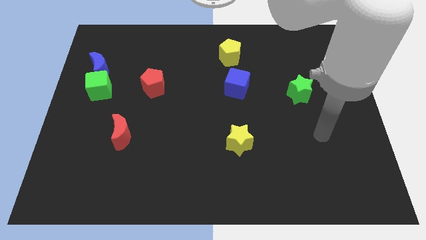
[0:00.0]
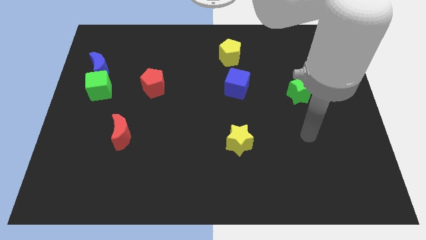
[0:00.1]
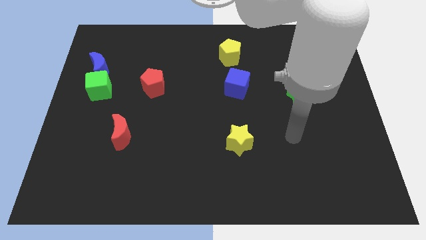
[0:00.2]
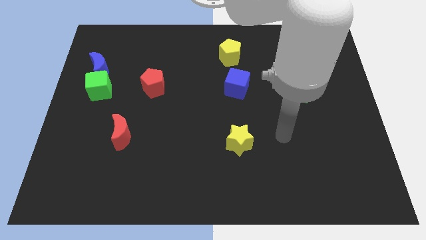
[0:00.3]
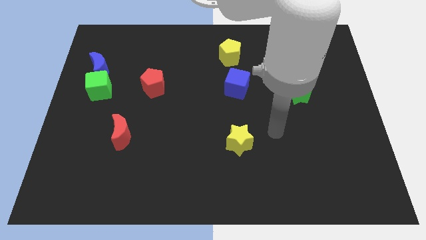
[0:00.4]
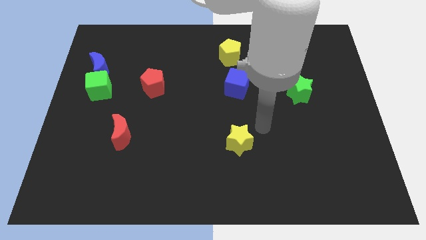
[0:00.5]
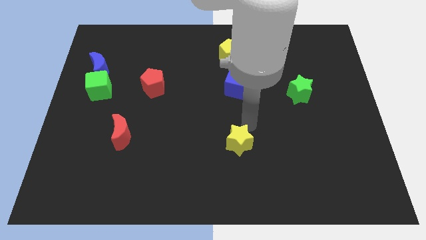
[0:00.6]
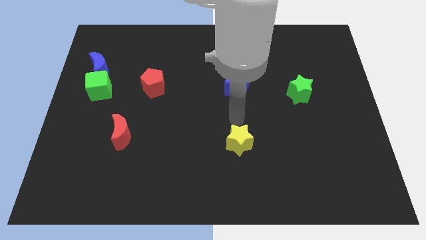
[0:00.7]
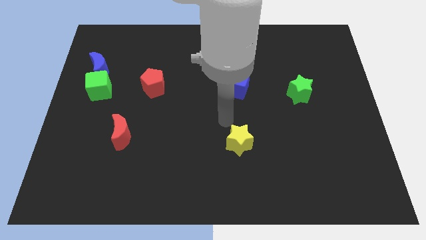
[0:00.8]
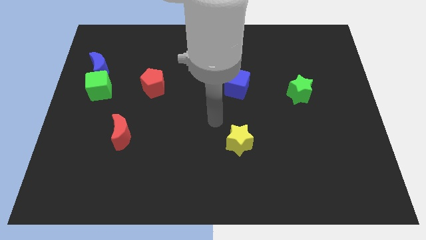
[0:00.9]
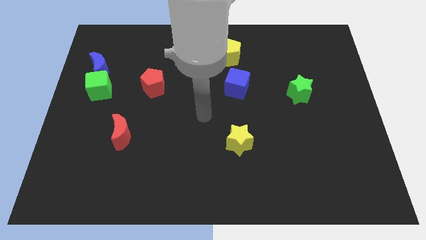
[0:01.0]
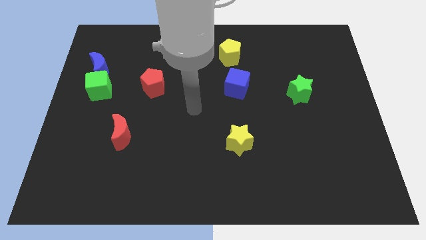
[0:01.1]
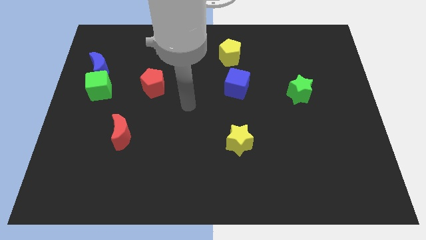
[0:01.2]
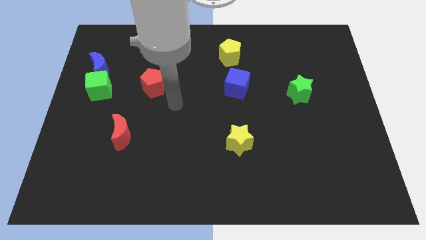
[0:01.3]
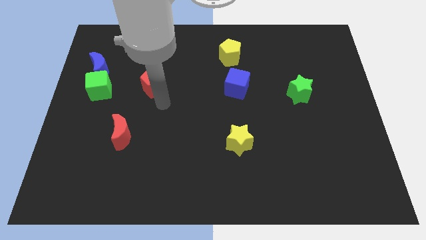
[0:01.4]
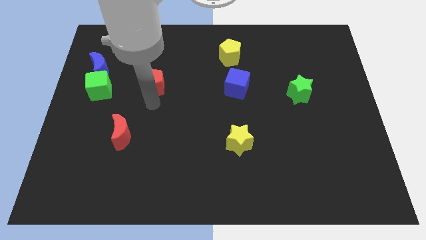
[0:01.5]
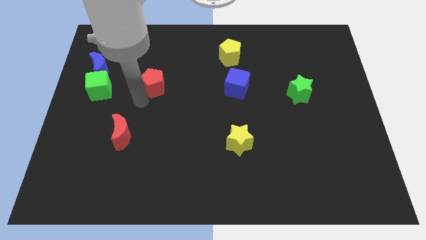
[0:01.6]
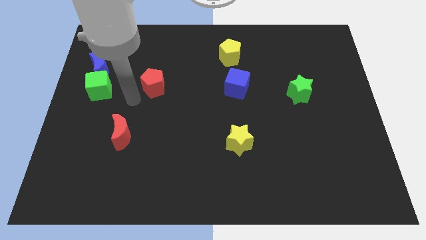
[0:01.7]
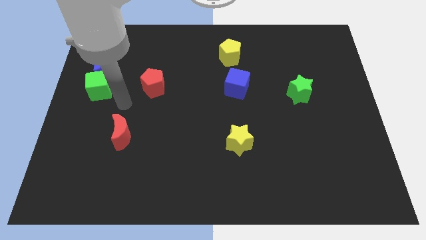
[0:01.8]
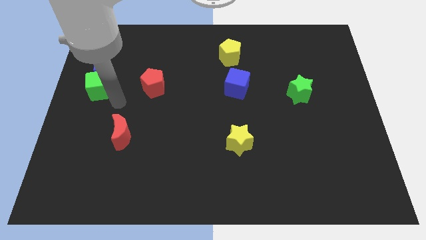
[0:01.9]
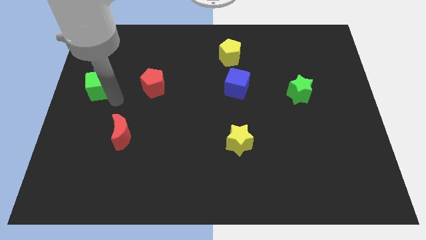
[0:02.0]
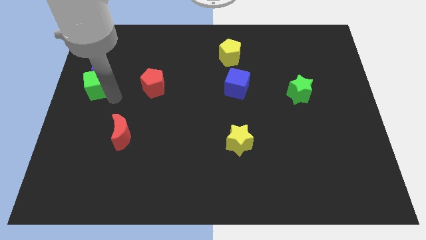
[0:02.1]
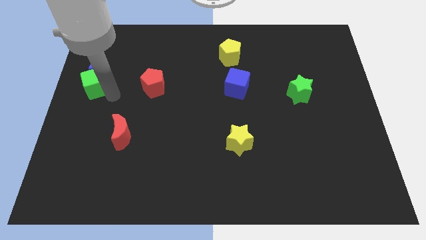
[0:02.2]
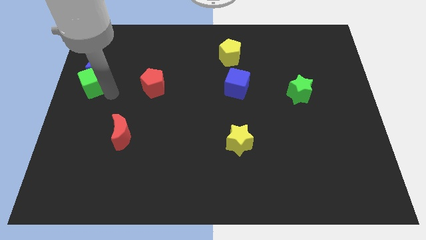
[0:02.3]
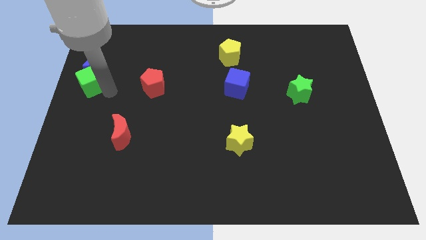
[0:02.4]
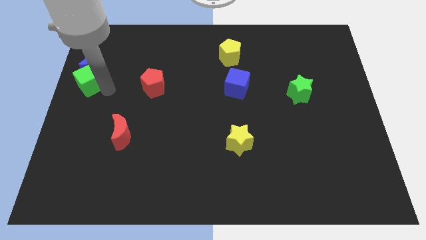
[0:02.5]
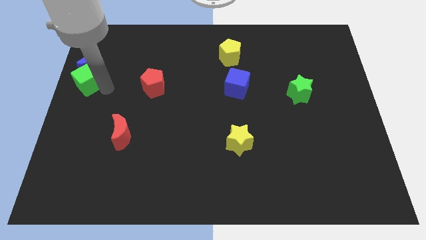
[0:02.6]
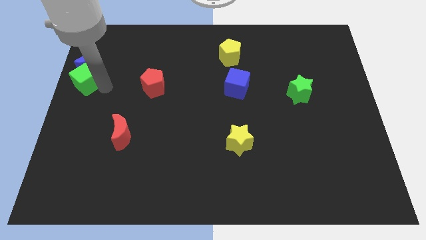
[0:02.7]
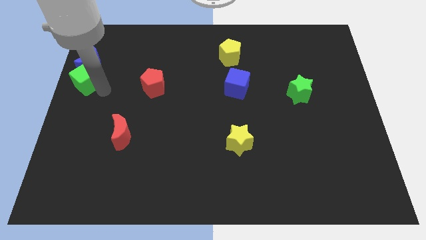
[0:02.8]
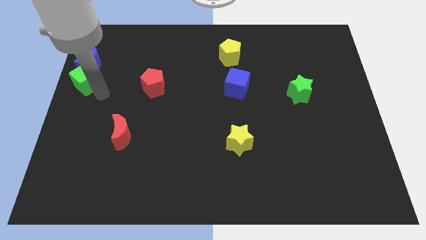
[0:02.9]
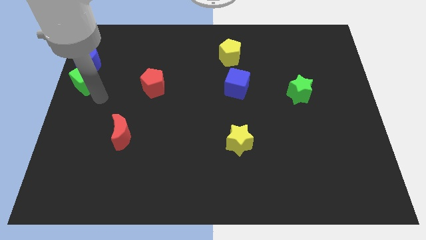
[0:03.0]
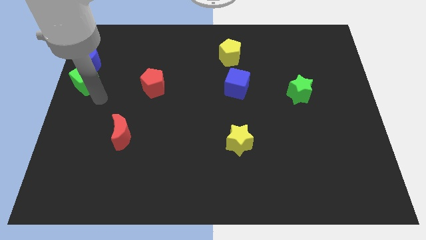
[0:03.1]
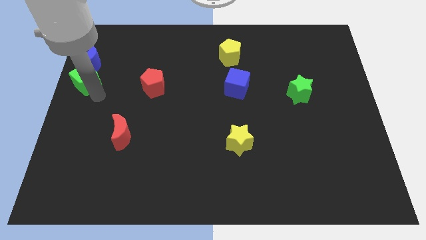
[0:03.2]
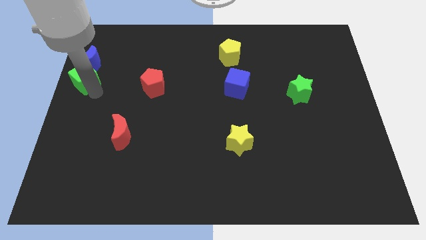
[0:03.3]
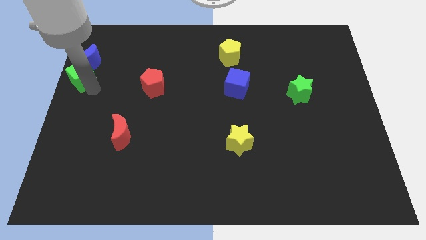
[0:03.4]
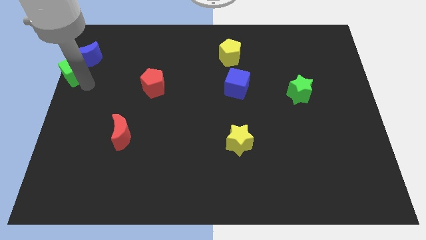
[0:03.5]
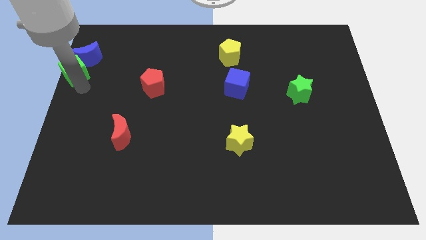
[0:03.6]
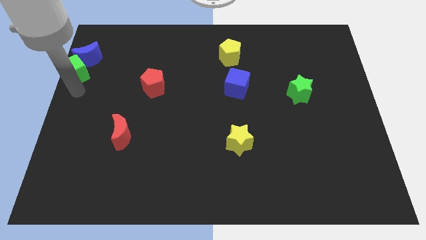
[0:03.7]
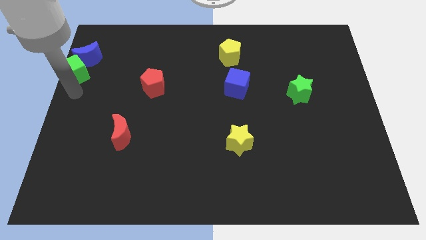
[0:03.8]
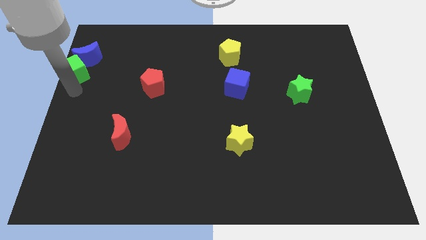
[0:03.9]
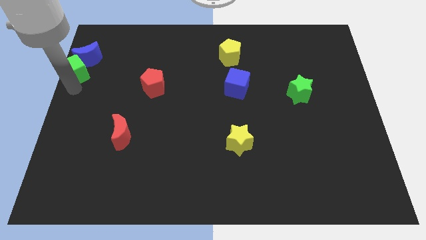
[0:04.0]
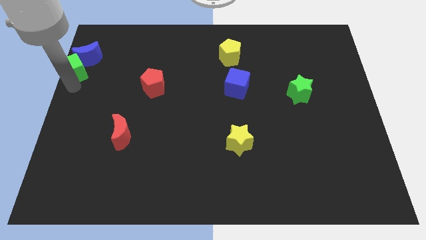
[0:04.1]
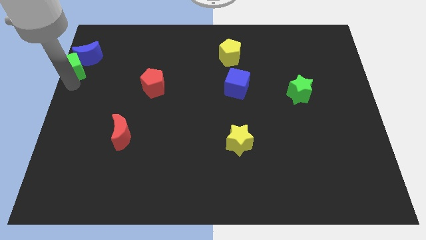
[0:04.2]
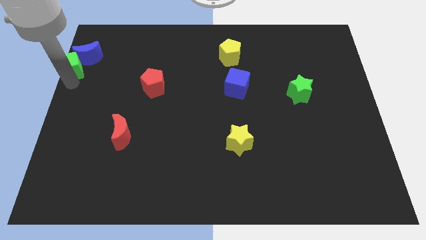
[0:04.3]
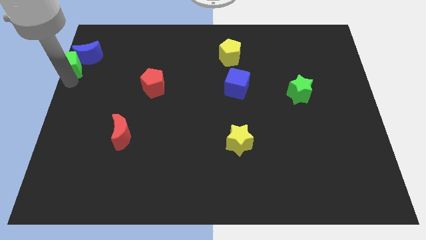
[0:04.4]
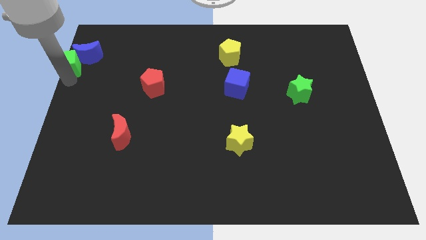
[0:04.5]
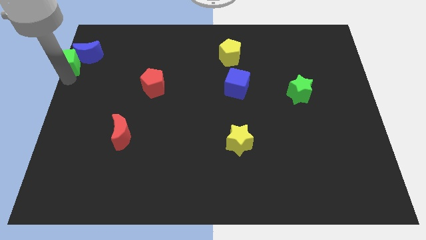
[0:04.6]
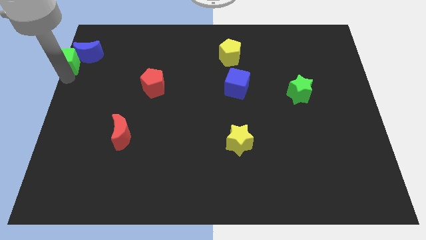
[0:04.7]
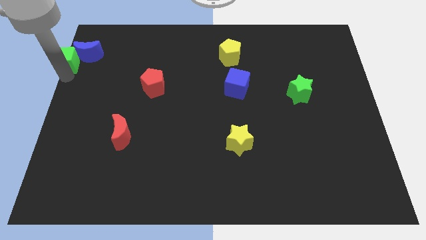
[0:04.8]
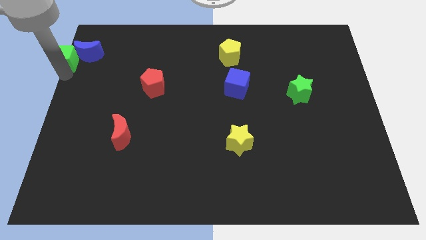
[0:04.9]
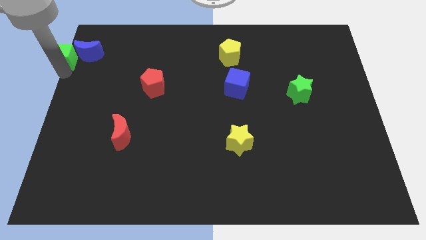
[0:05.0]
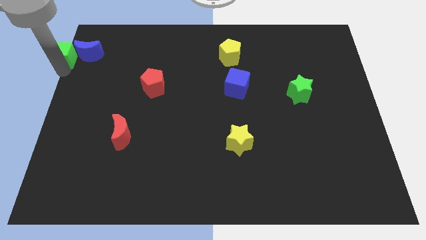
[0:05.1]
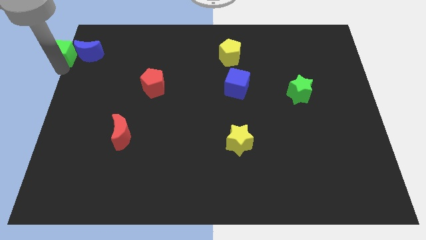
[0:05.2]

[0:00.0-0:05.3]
push the green cube to the top left

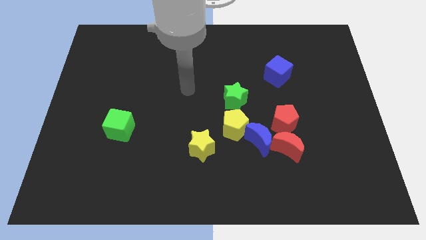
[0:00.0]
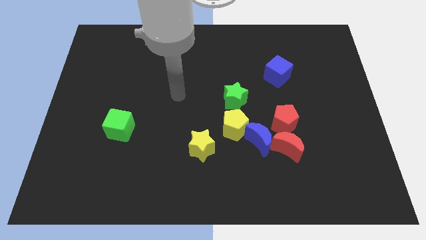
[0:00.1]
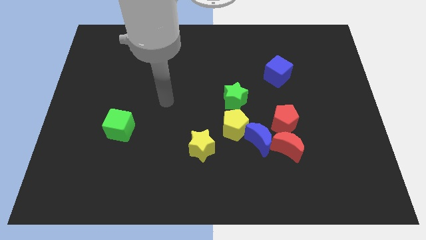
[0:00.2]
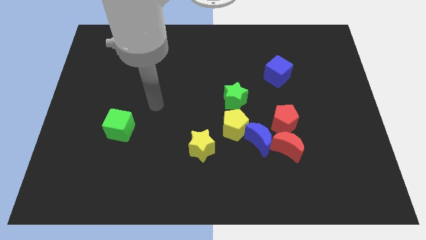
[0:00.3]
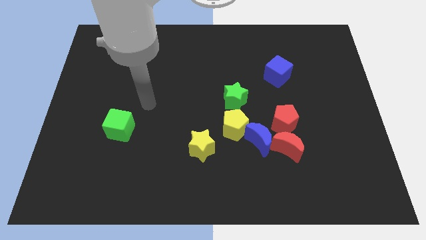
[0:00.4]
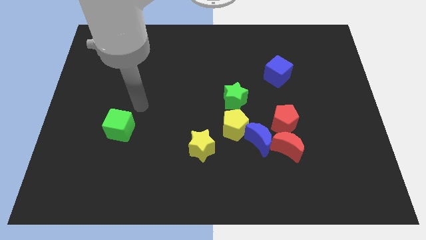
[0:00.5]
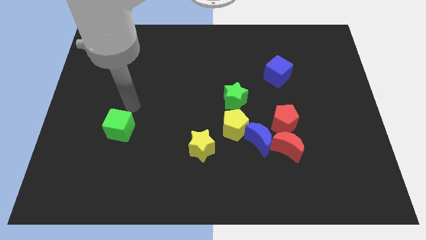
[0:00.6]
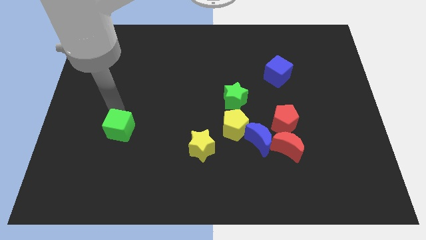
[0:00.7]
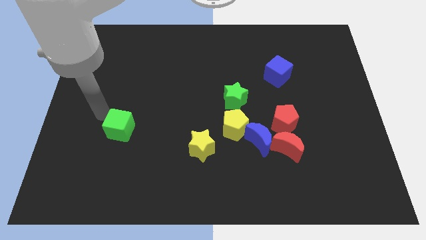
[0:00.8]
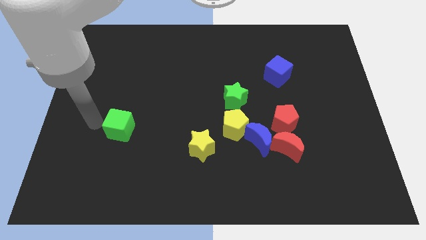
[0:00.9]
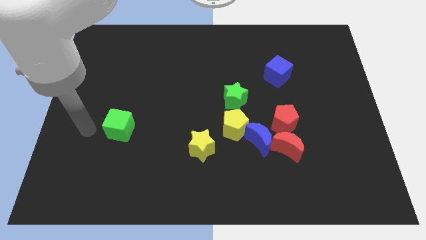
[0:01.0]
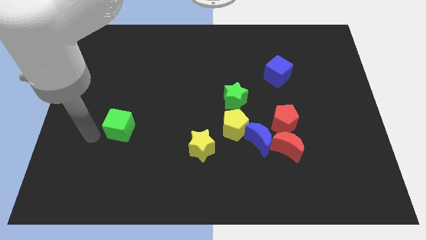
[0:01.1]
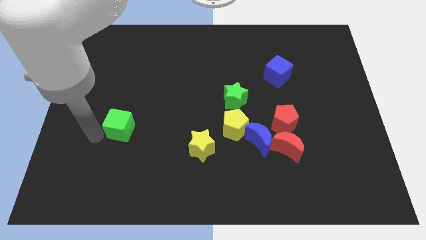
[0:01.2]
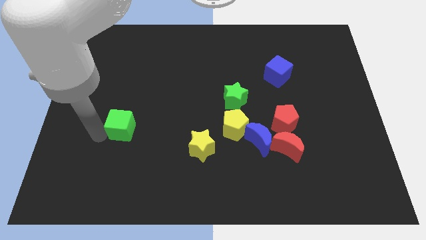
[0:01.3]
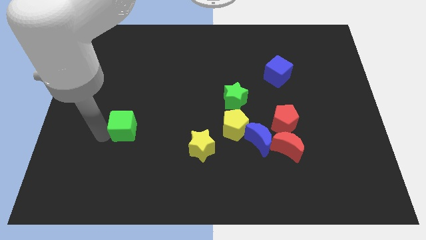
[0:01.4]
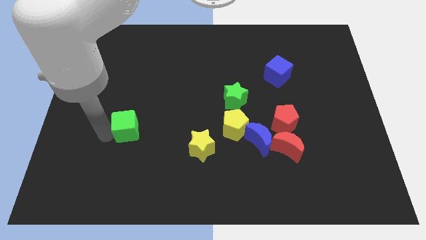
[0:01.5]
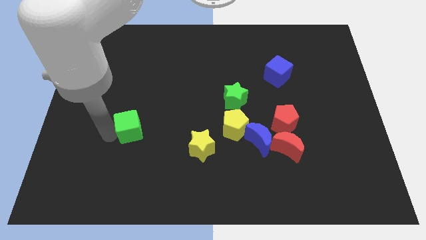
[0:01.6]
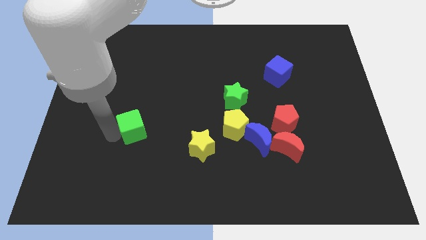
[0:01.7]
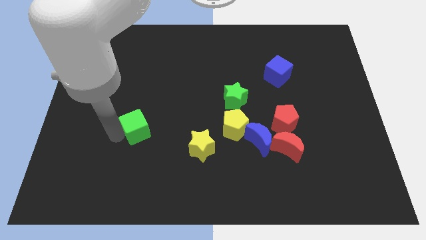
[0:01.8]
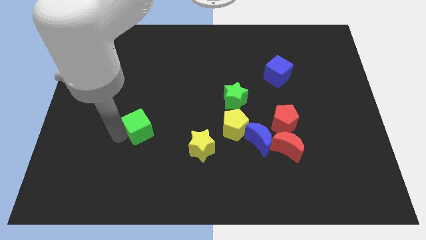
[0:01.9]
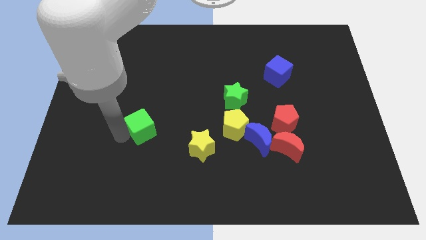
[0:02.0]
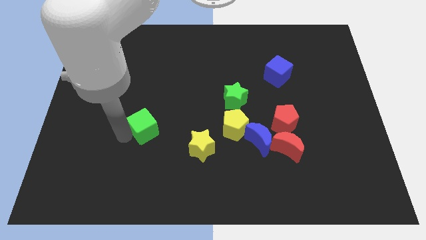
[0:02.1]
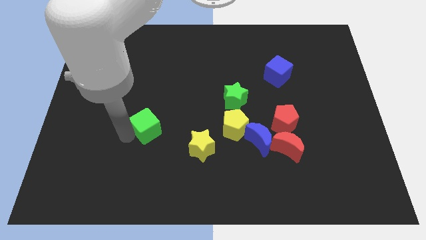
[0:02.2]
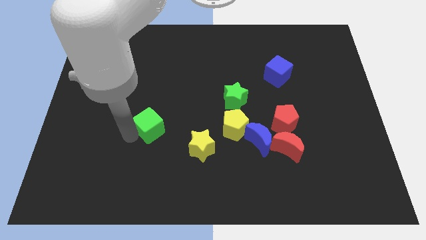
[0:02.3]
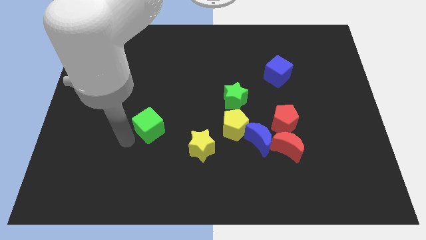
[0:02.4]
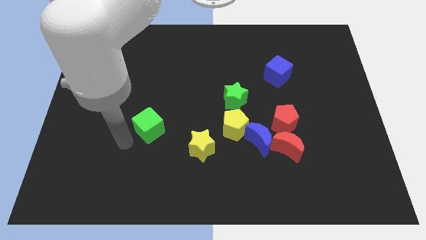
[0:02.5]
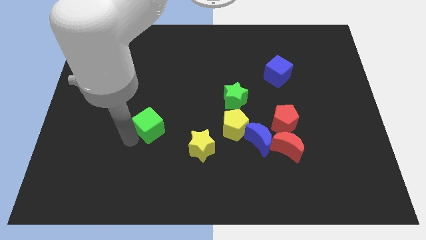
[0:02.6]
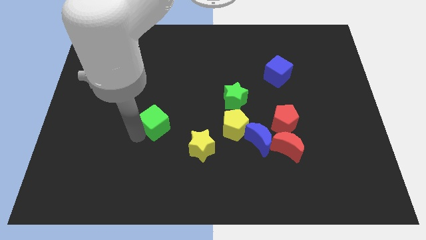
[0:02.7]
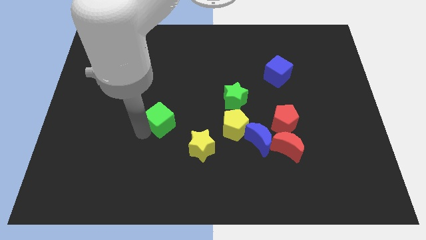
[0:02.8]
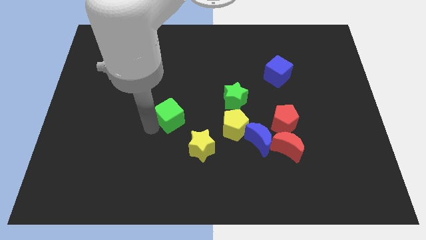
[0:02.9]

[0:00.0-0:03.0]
push the green cube to the center of the board
